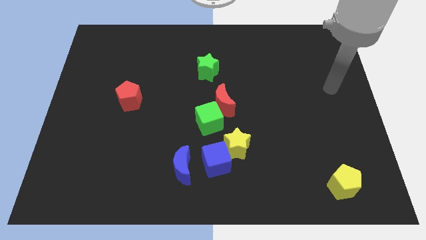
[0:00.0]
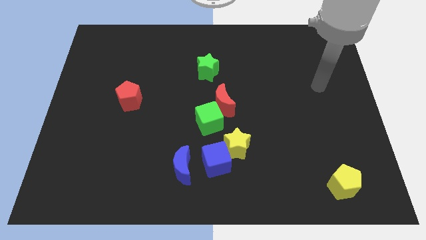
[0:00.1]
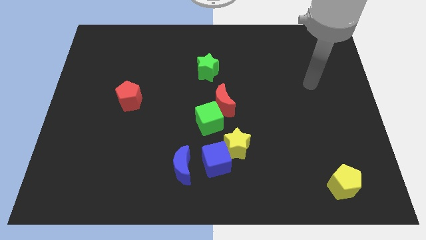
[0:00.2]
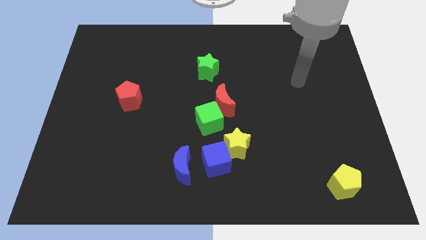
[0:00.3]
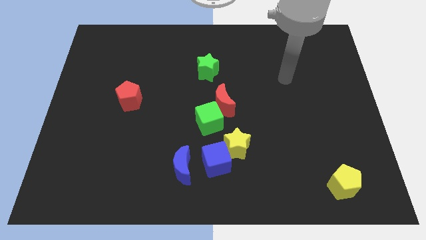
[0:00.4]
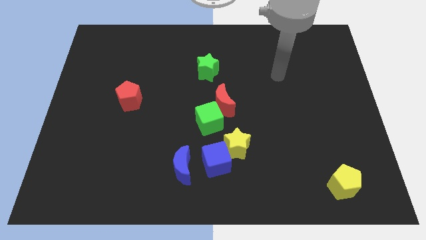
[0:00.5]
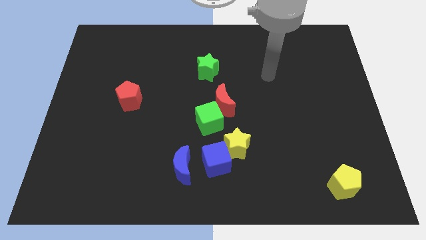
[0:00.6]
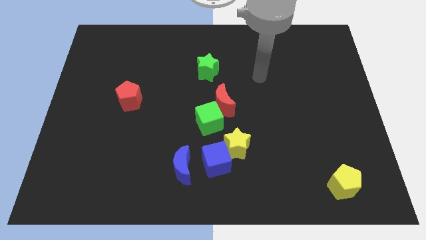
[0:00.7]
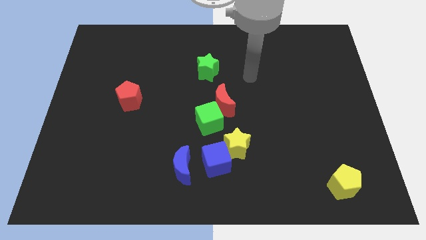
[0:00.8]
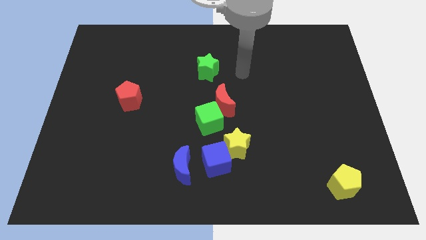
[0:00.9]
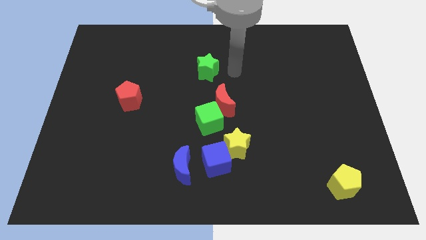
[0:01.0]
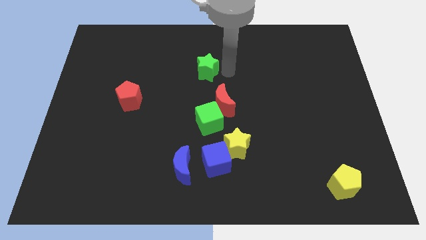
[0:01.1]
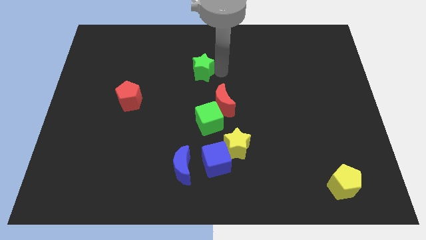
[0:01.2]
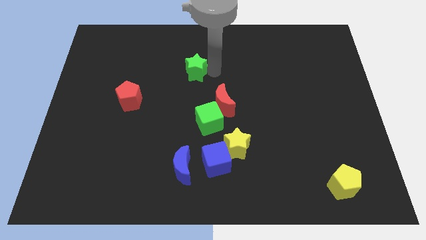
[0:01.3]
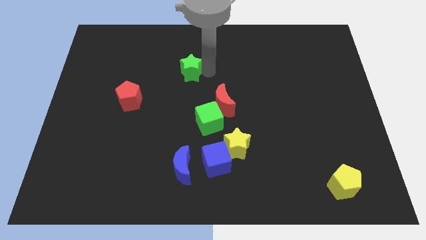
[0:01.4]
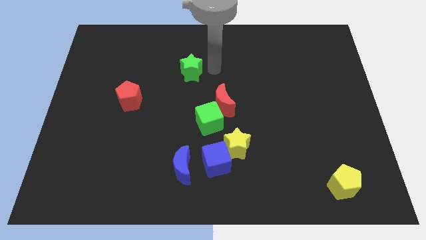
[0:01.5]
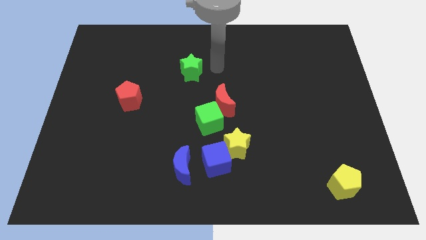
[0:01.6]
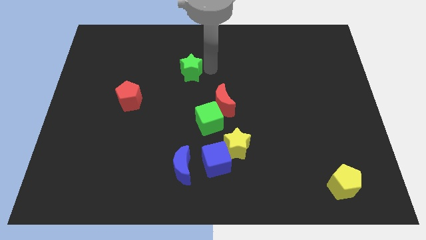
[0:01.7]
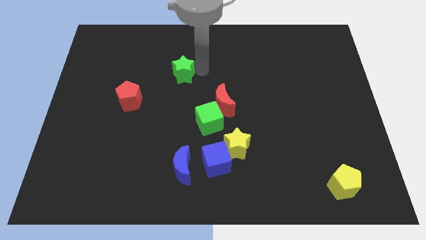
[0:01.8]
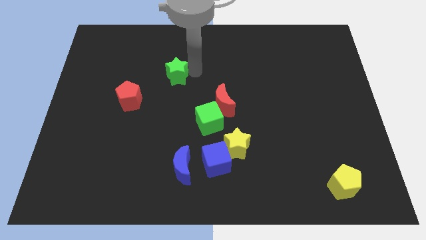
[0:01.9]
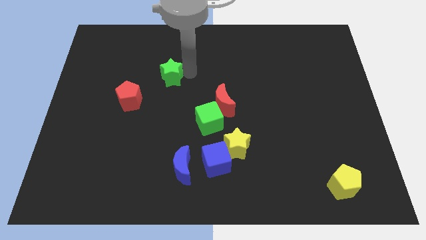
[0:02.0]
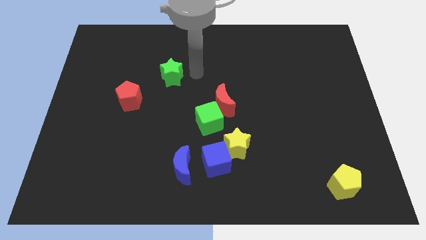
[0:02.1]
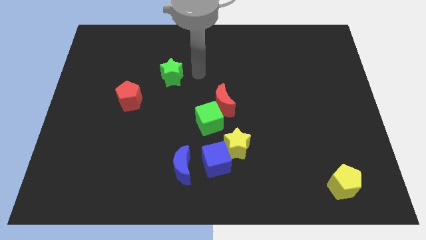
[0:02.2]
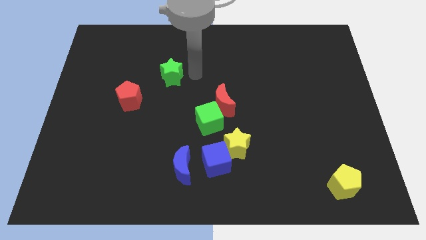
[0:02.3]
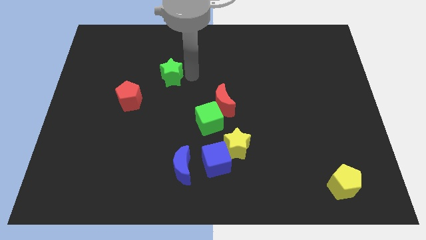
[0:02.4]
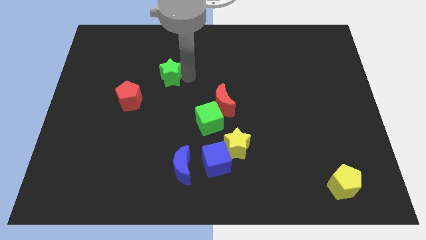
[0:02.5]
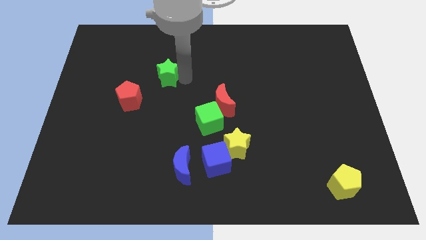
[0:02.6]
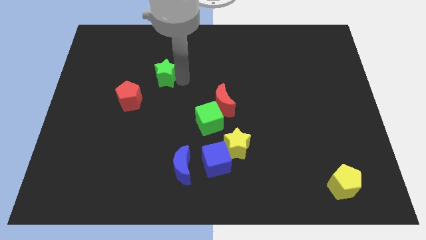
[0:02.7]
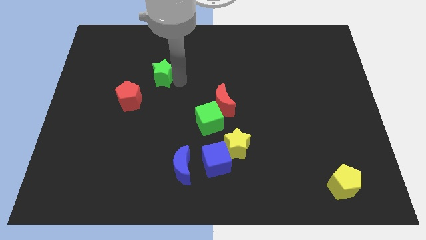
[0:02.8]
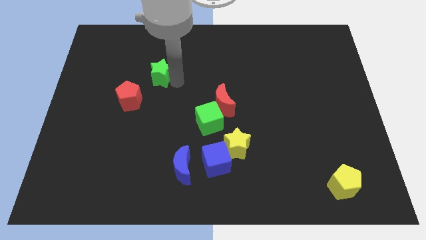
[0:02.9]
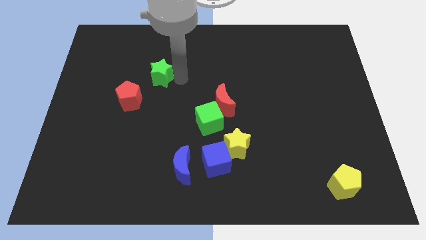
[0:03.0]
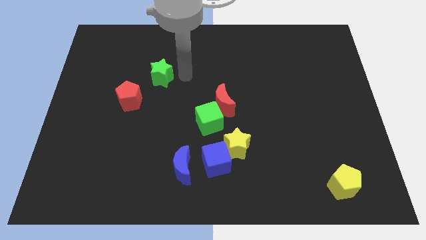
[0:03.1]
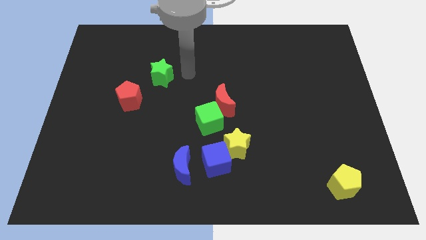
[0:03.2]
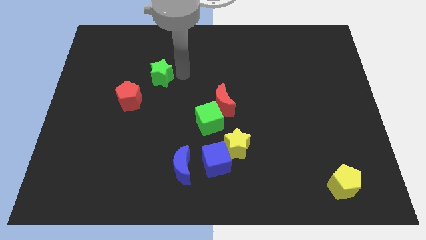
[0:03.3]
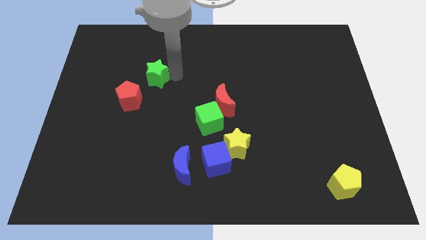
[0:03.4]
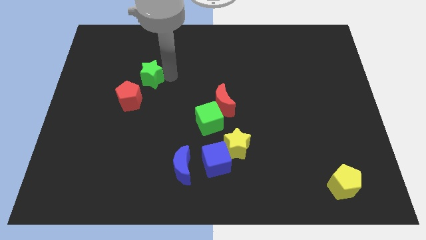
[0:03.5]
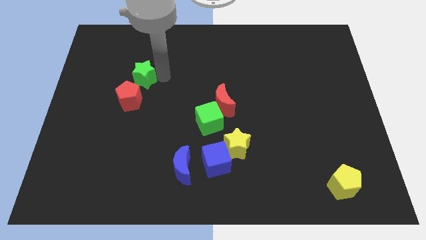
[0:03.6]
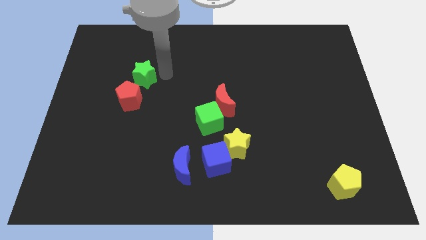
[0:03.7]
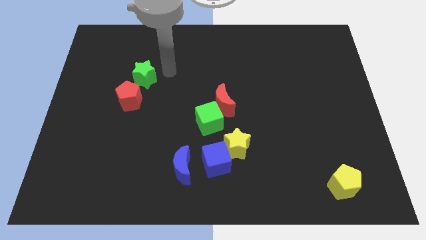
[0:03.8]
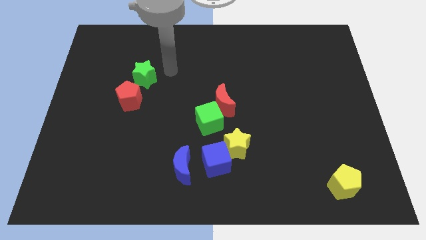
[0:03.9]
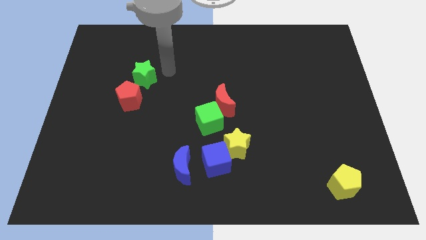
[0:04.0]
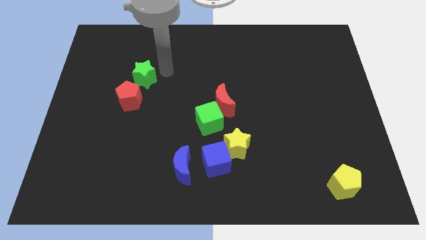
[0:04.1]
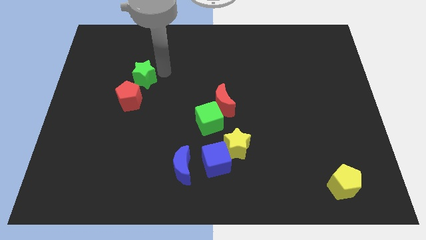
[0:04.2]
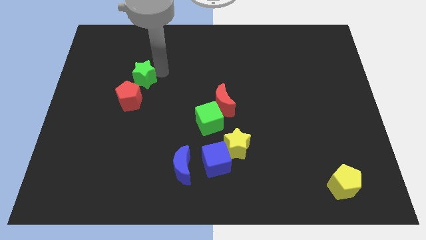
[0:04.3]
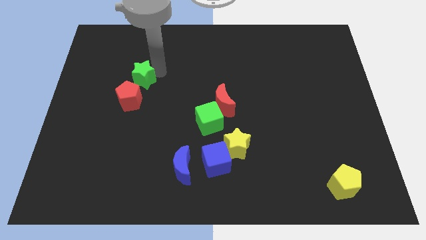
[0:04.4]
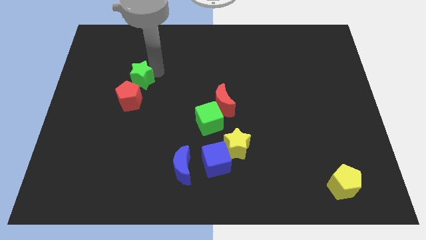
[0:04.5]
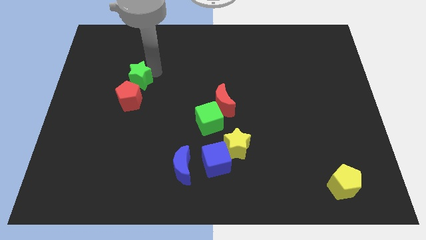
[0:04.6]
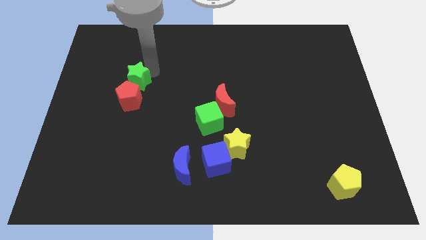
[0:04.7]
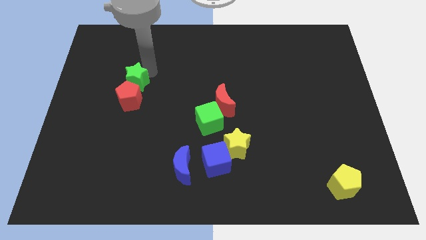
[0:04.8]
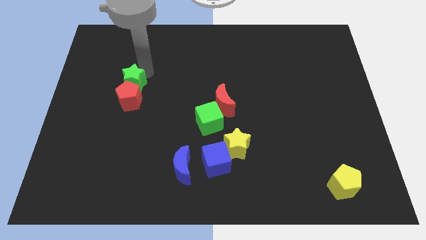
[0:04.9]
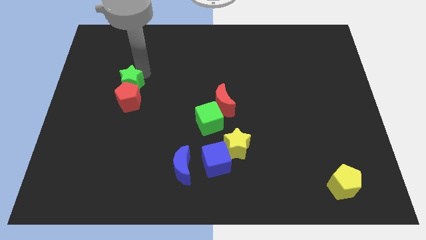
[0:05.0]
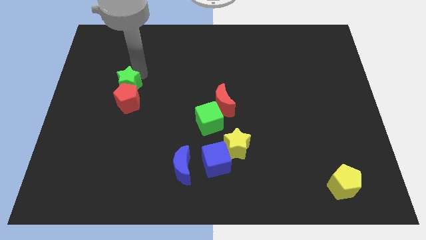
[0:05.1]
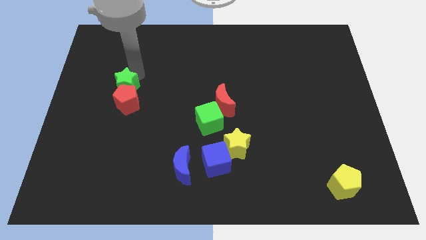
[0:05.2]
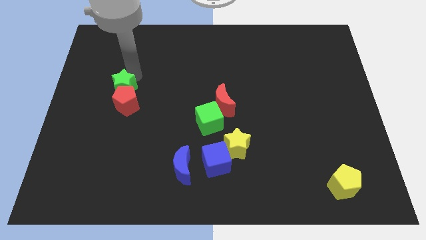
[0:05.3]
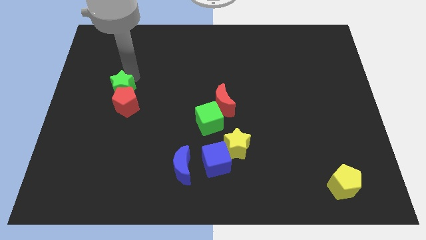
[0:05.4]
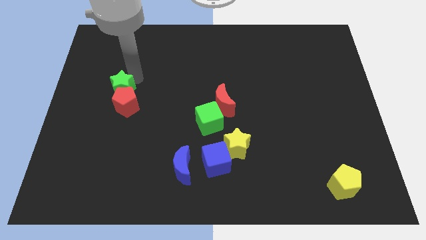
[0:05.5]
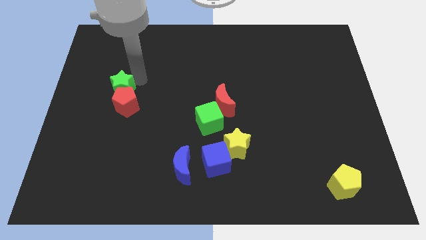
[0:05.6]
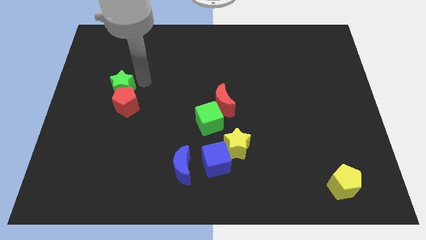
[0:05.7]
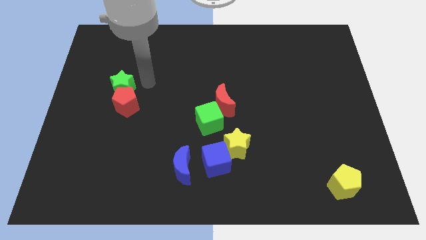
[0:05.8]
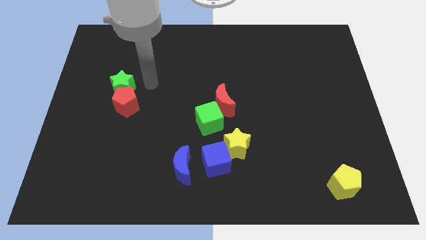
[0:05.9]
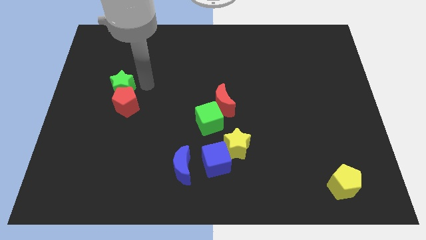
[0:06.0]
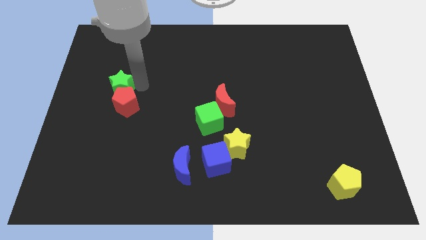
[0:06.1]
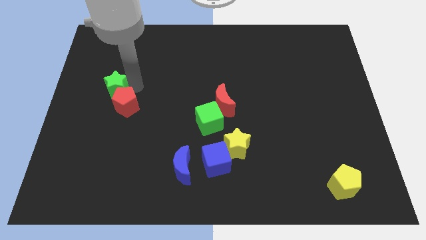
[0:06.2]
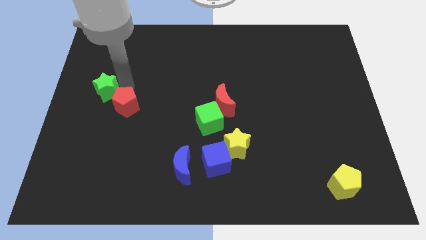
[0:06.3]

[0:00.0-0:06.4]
move the green star to the left side

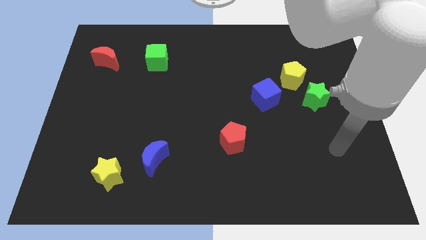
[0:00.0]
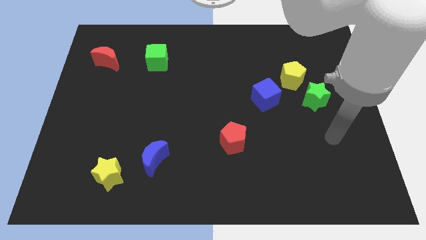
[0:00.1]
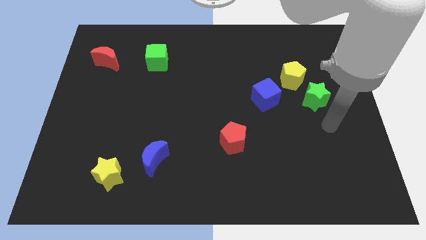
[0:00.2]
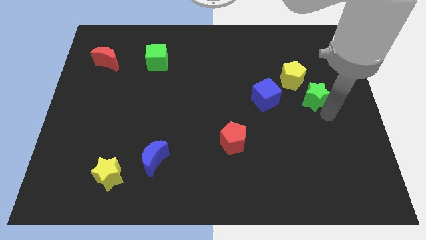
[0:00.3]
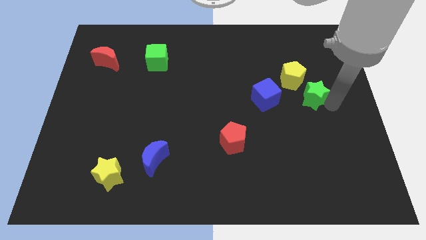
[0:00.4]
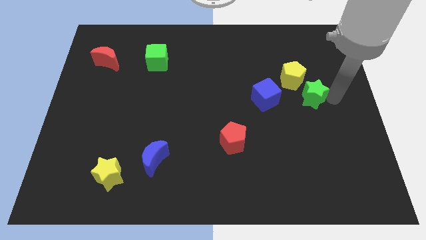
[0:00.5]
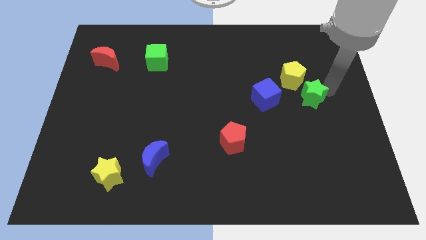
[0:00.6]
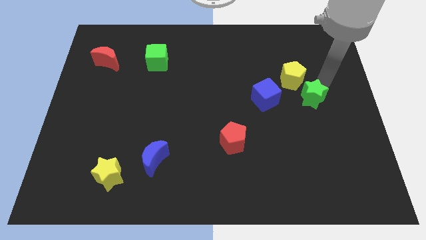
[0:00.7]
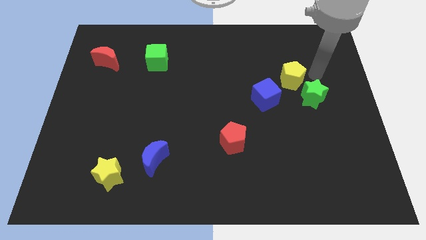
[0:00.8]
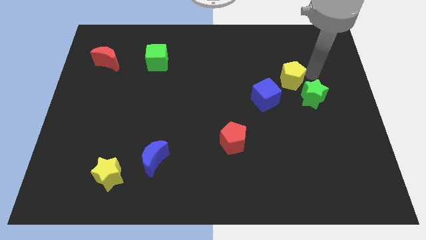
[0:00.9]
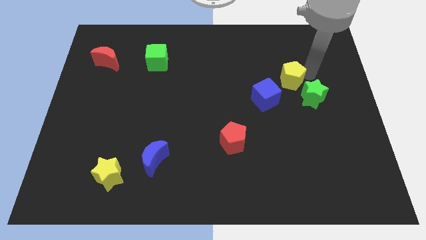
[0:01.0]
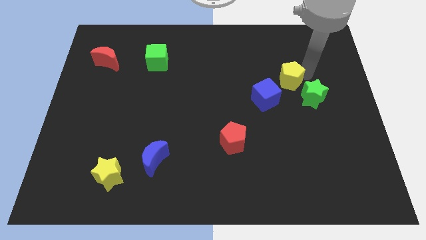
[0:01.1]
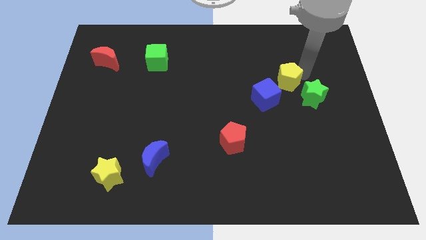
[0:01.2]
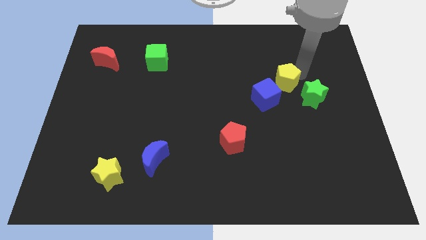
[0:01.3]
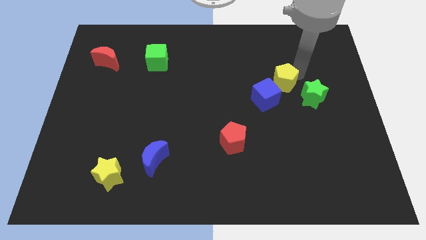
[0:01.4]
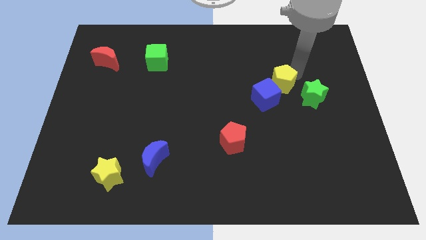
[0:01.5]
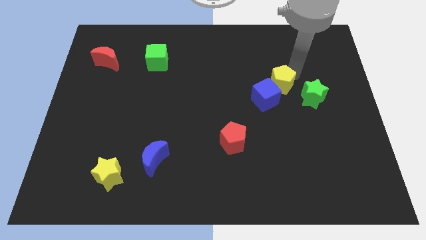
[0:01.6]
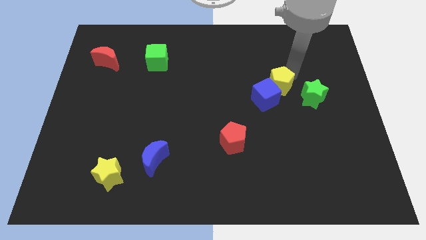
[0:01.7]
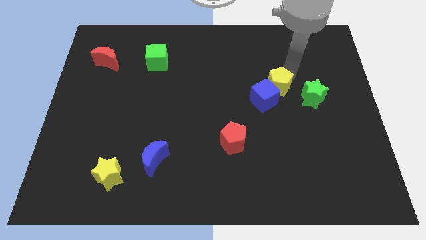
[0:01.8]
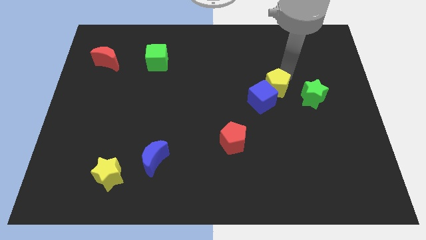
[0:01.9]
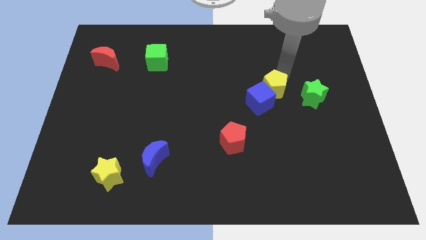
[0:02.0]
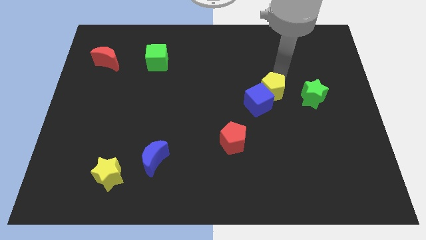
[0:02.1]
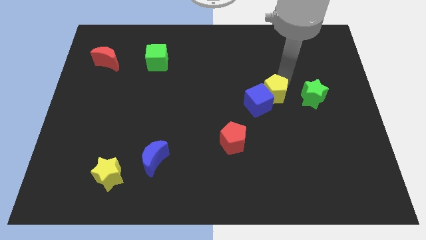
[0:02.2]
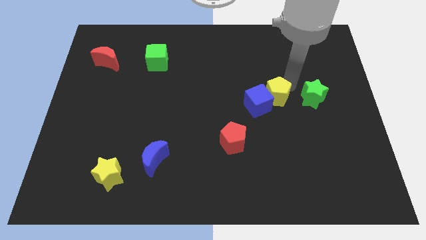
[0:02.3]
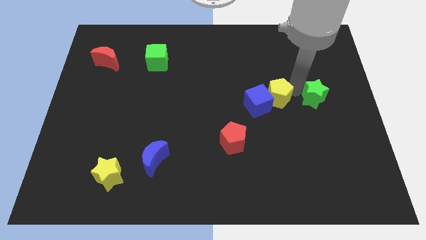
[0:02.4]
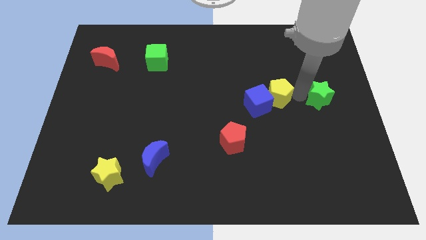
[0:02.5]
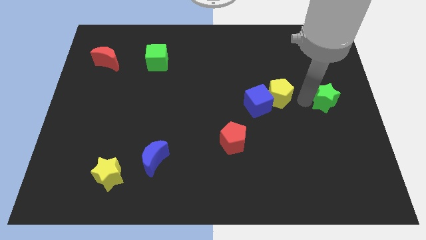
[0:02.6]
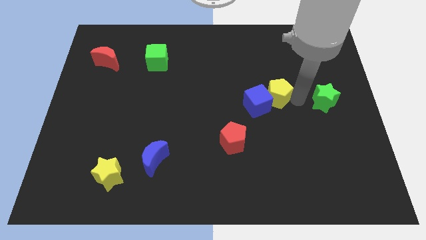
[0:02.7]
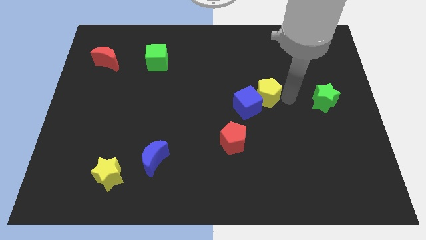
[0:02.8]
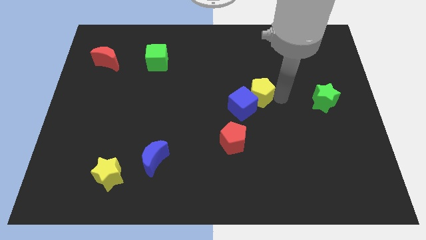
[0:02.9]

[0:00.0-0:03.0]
put the yellow pentagon to the middle
